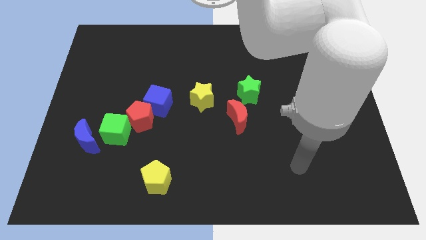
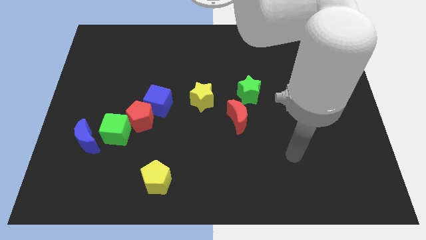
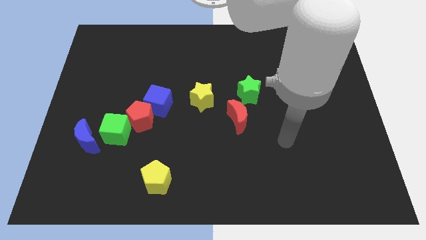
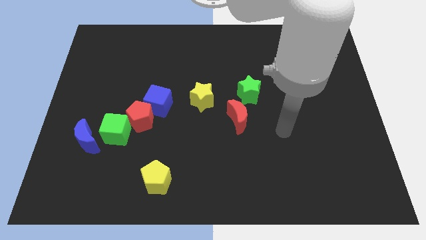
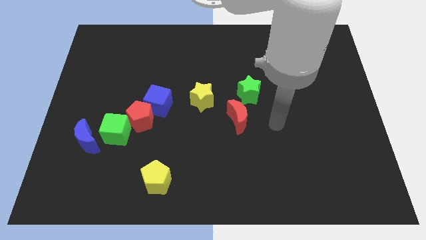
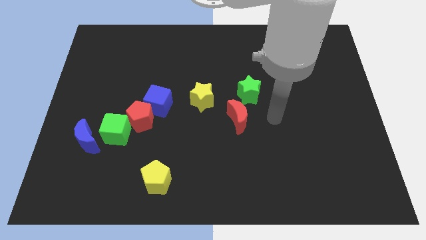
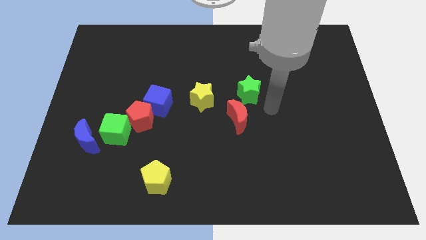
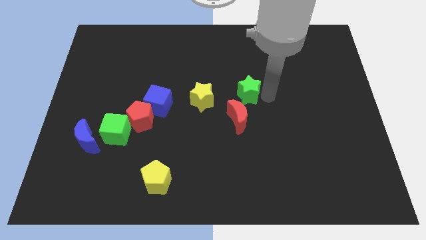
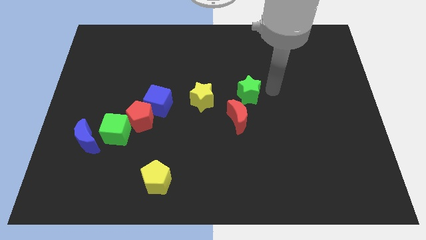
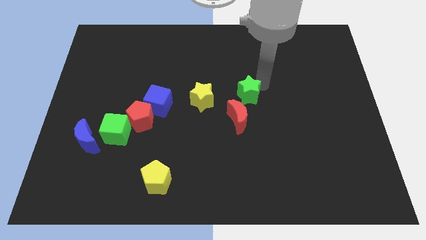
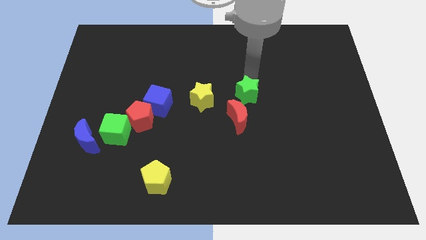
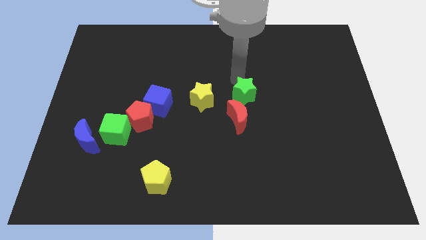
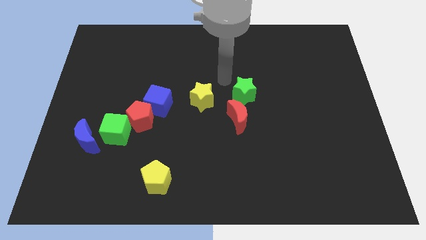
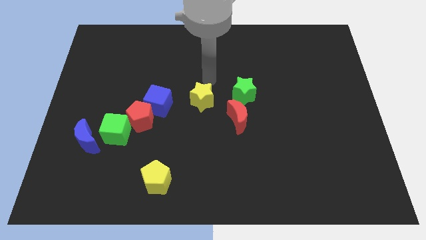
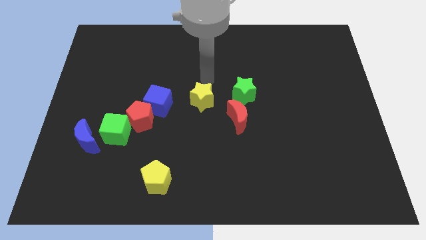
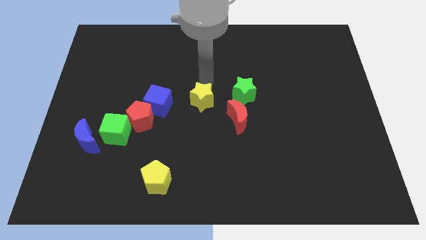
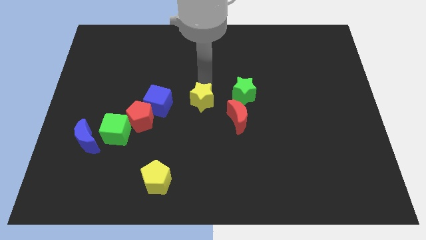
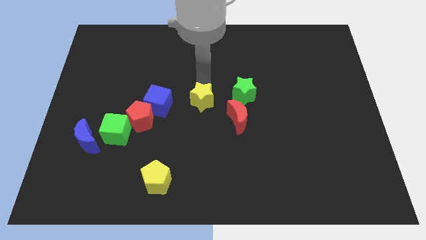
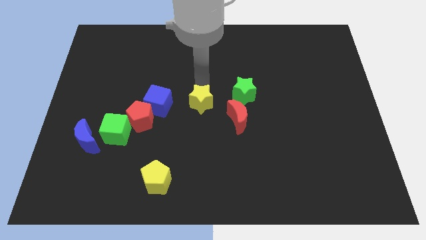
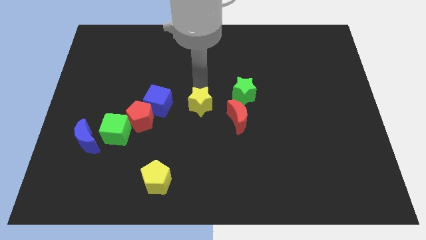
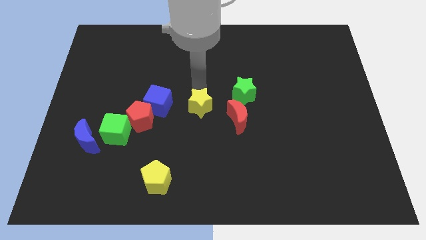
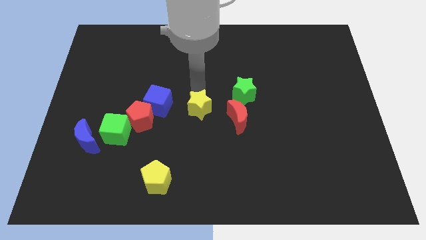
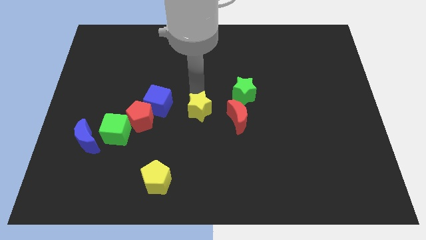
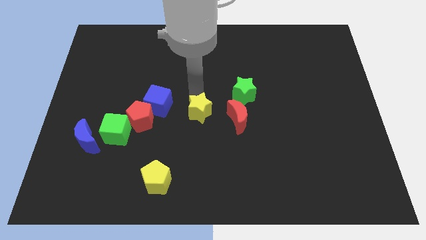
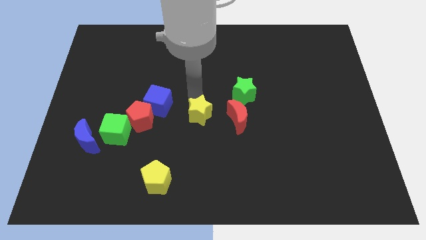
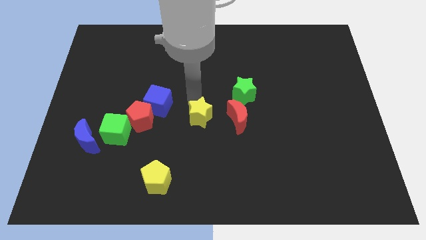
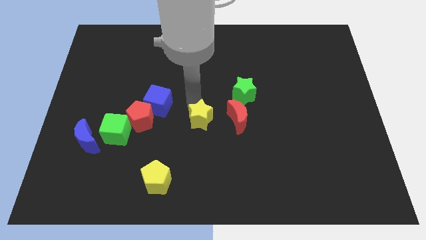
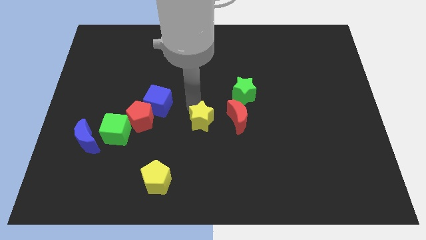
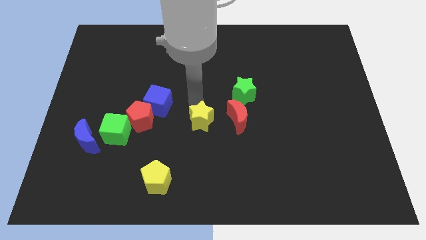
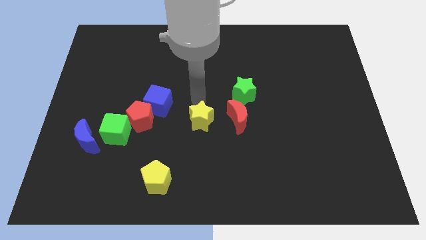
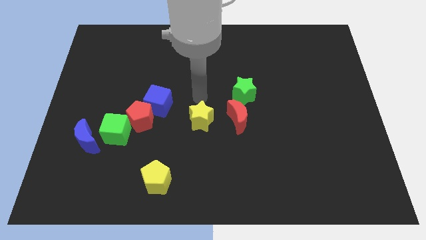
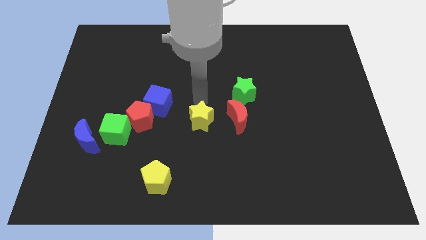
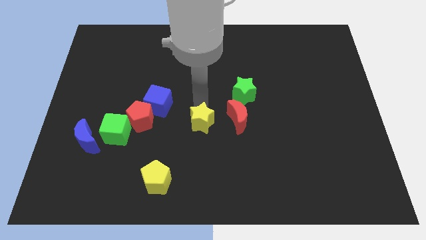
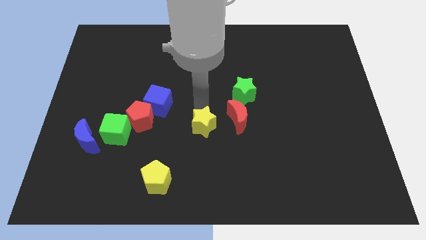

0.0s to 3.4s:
push the yellow star down a bit

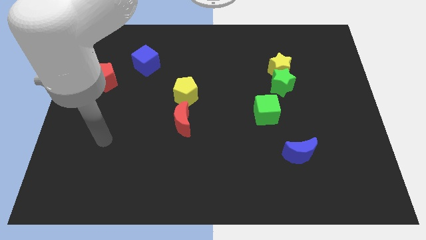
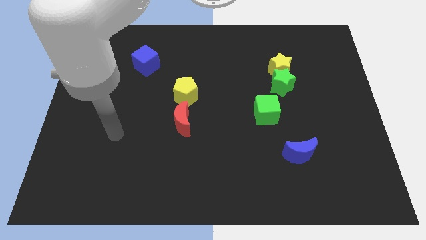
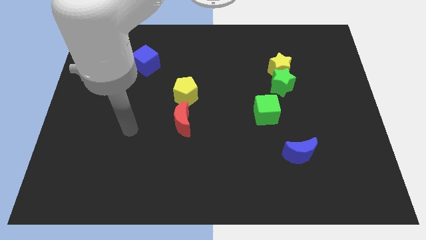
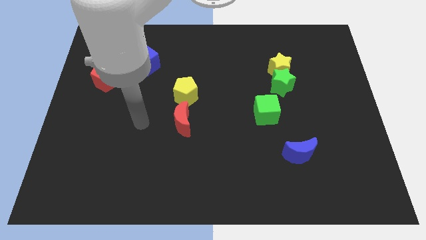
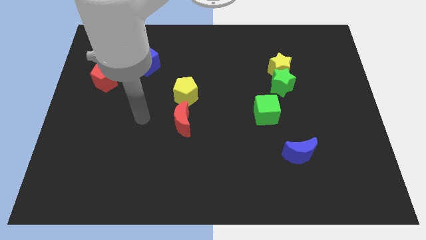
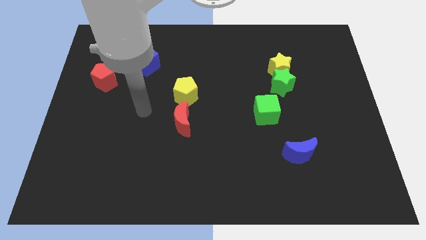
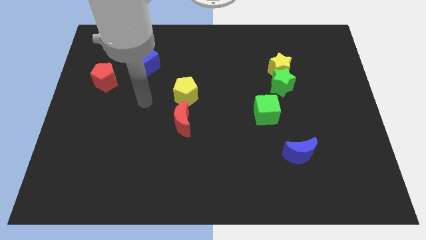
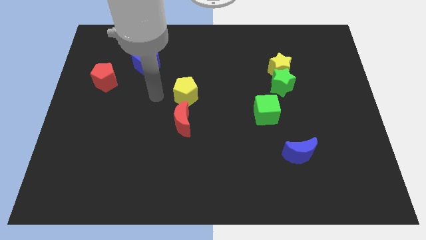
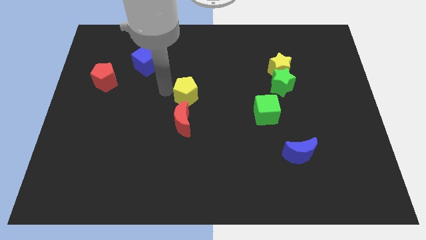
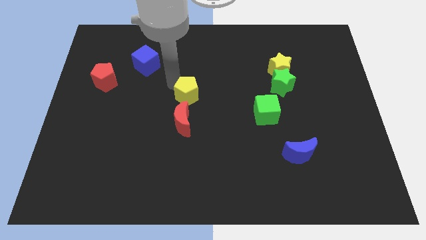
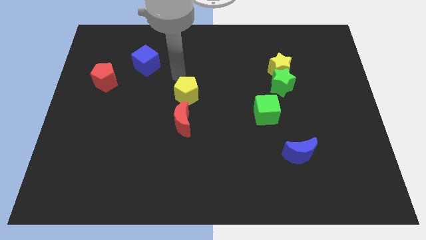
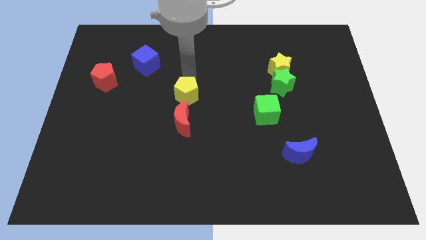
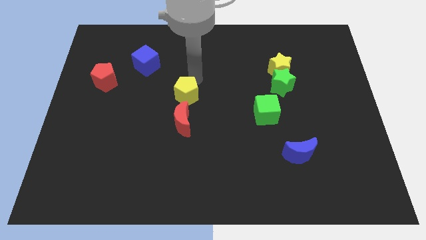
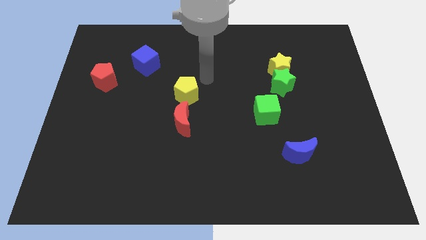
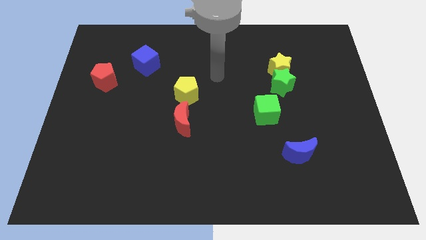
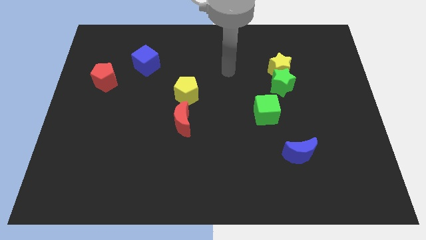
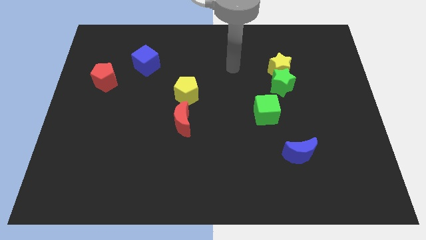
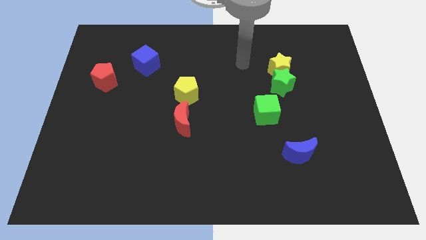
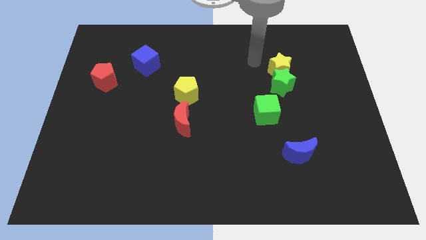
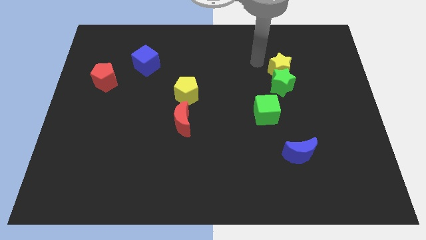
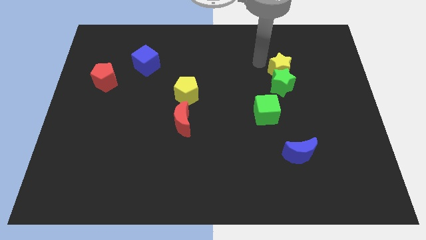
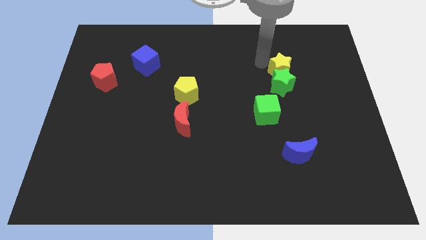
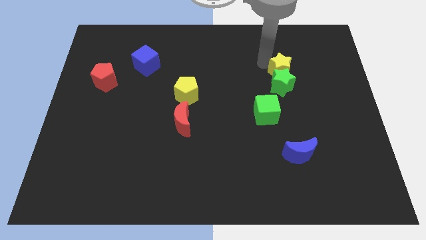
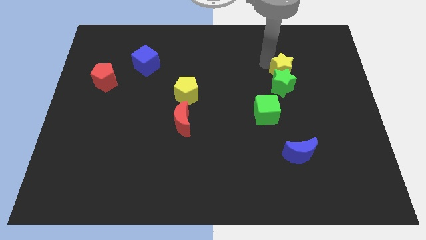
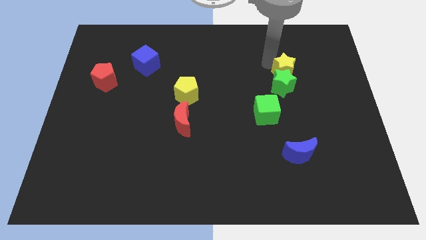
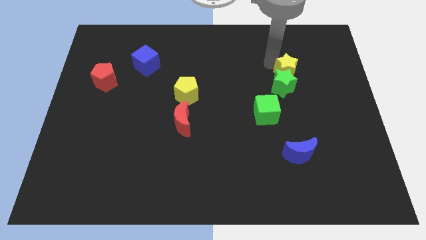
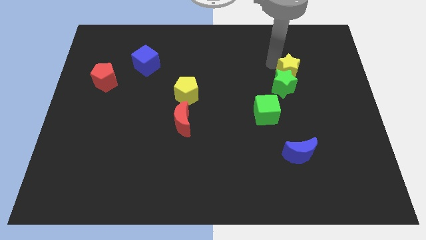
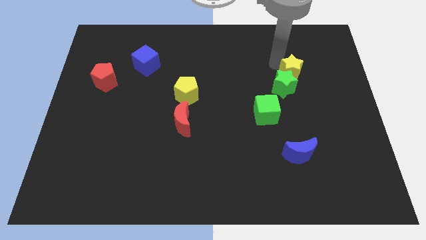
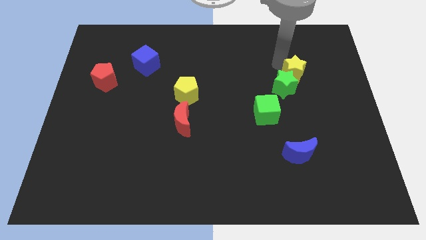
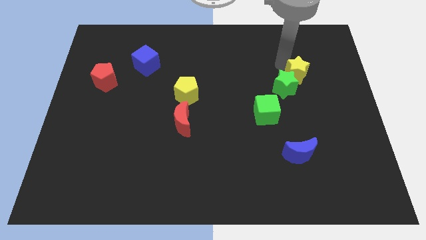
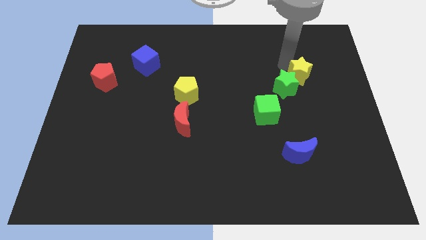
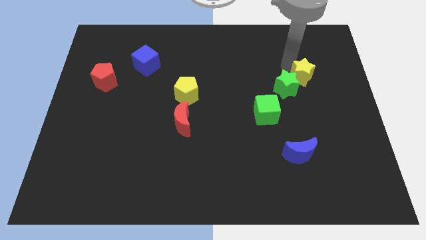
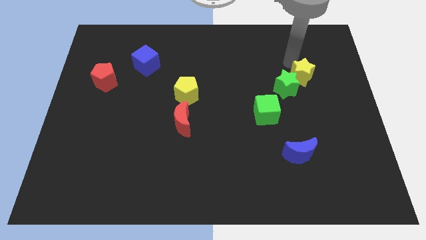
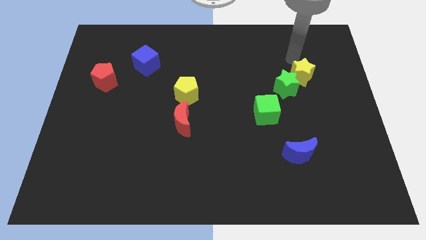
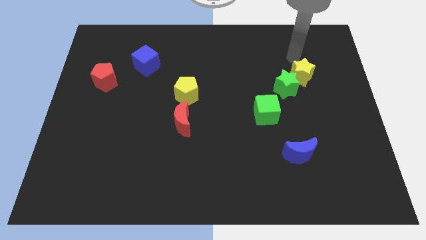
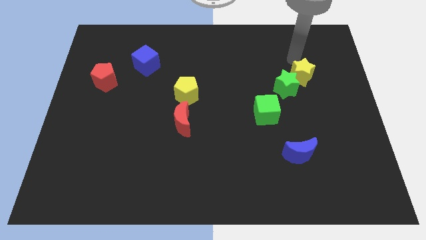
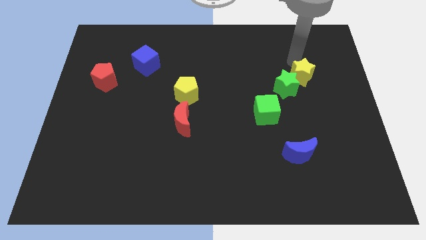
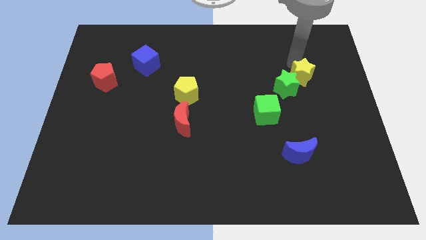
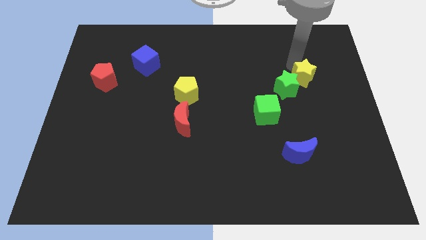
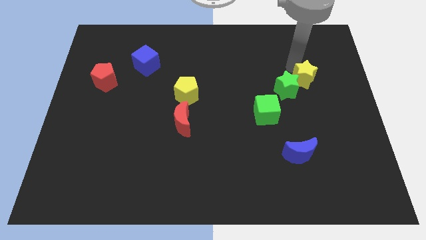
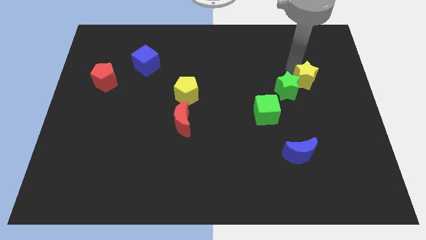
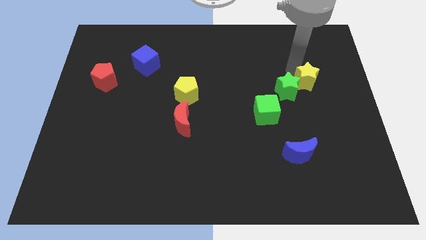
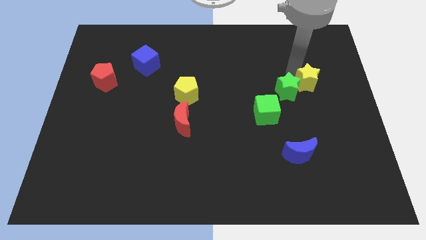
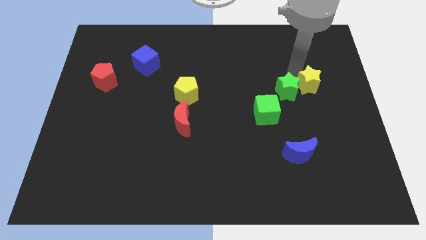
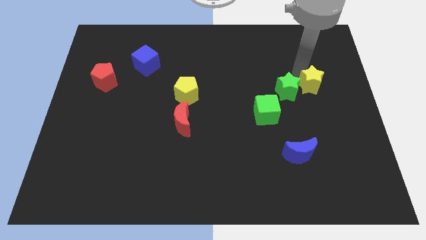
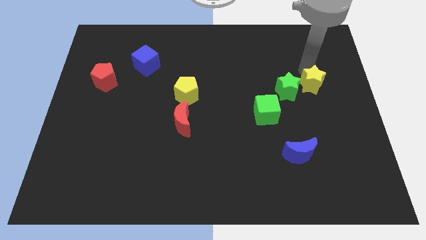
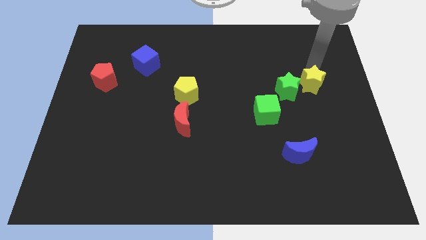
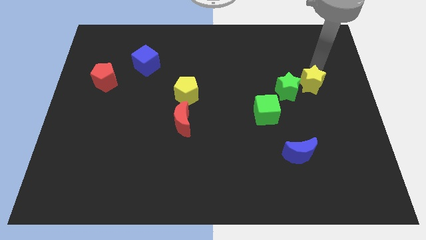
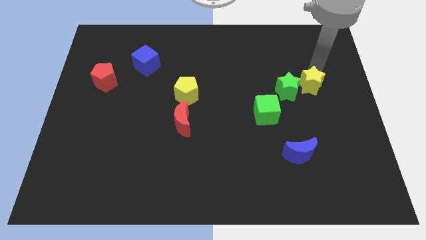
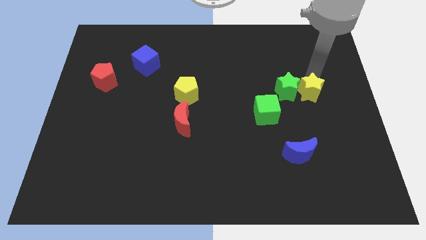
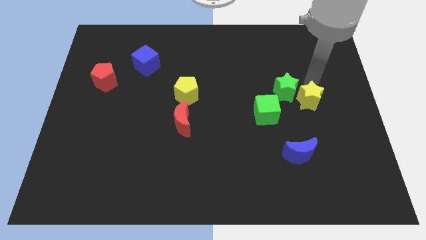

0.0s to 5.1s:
slide the yellow star down slightly
